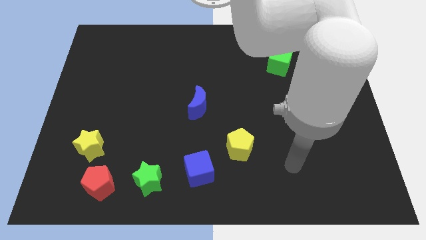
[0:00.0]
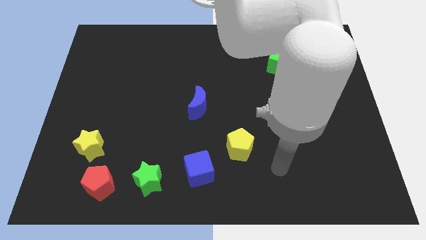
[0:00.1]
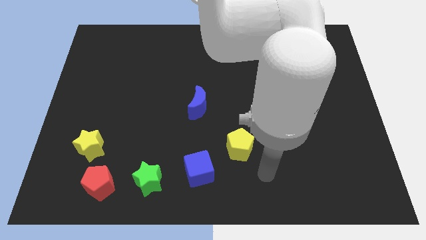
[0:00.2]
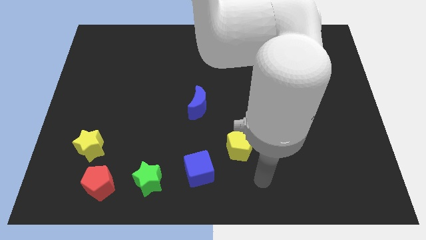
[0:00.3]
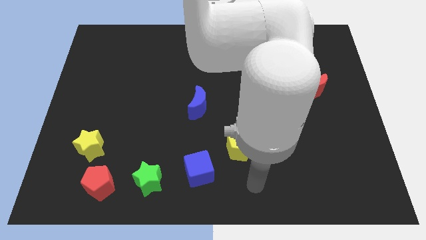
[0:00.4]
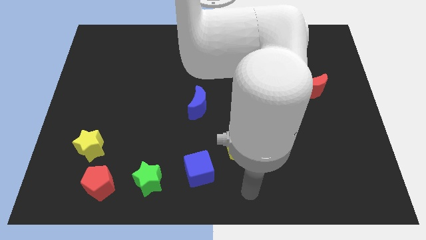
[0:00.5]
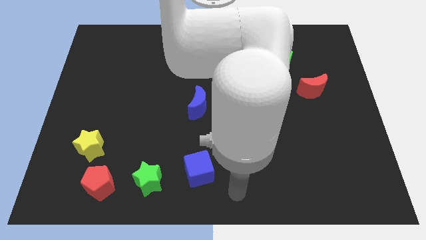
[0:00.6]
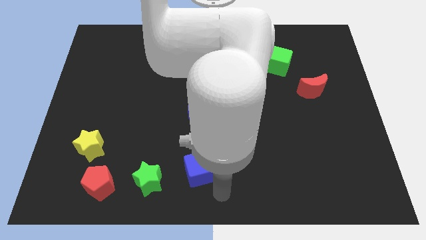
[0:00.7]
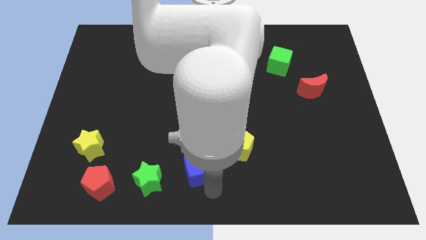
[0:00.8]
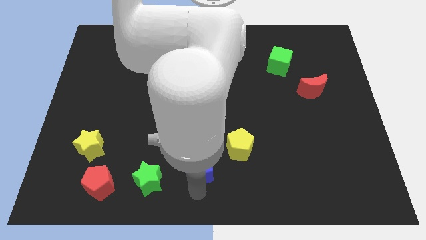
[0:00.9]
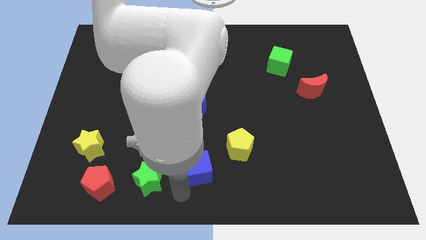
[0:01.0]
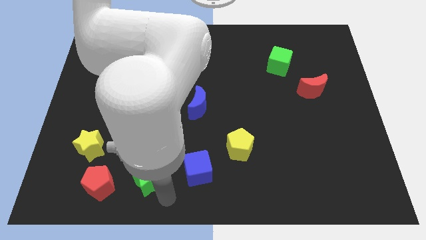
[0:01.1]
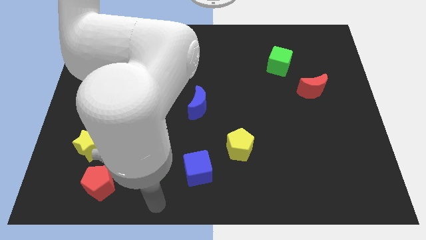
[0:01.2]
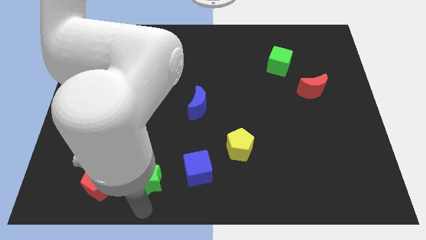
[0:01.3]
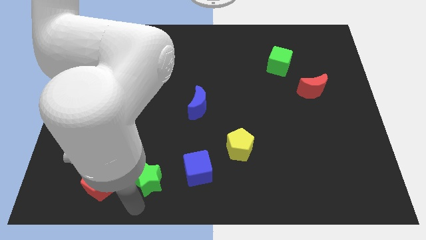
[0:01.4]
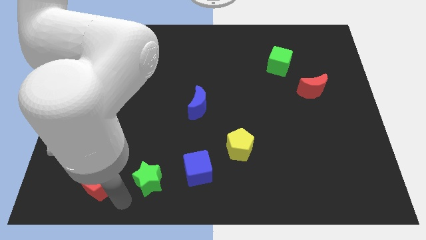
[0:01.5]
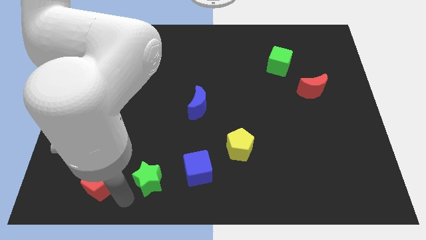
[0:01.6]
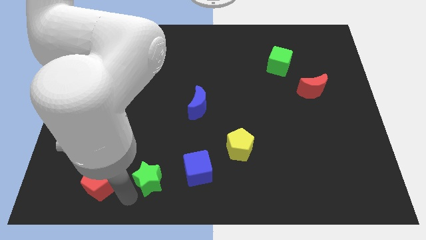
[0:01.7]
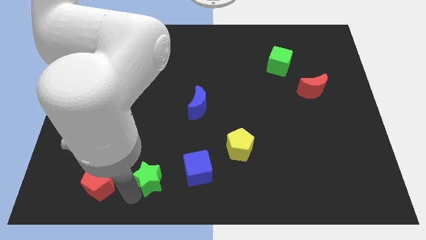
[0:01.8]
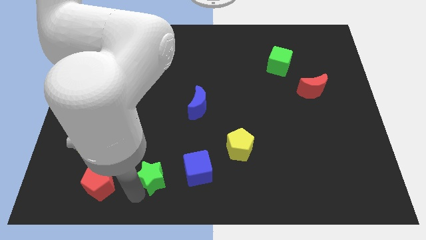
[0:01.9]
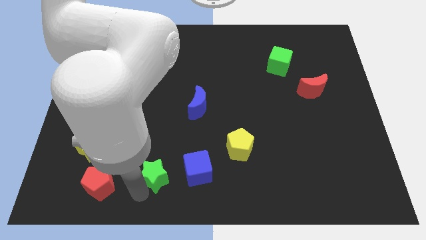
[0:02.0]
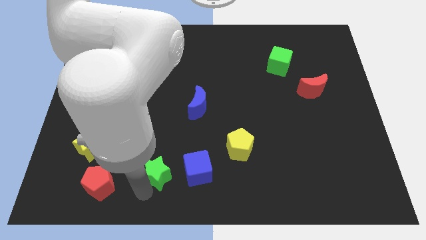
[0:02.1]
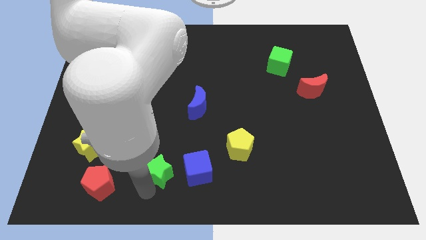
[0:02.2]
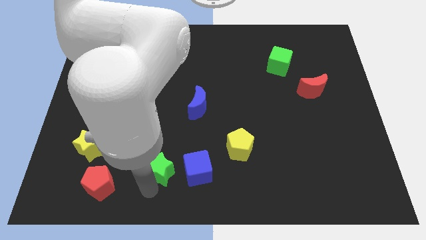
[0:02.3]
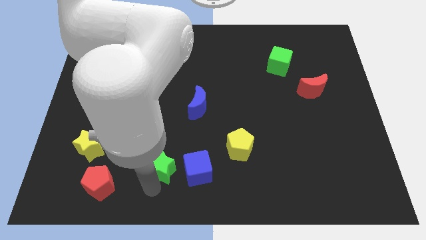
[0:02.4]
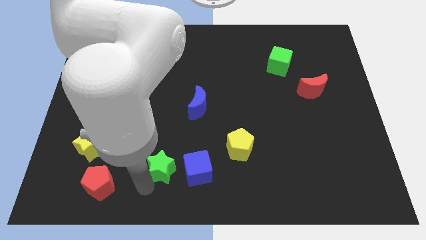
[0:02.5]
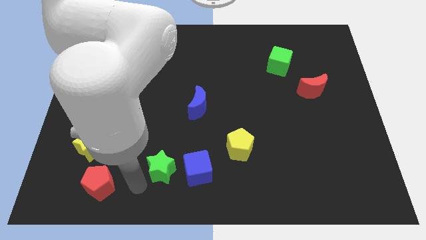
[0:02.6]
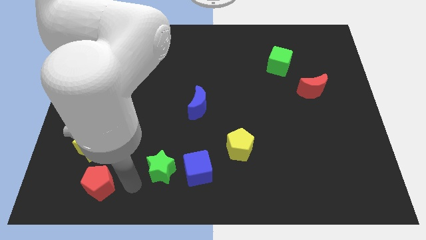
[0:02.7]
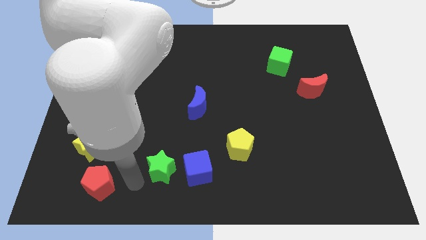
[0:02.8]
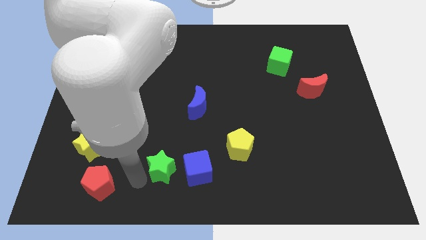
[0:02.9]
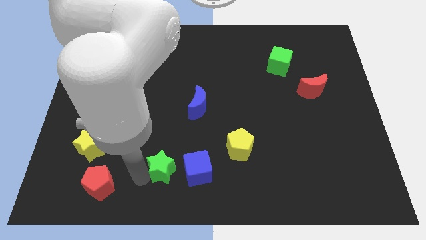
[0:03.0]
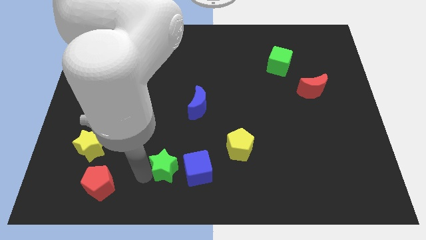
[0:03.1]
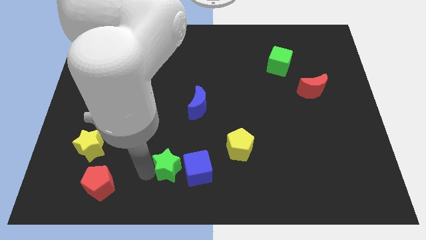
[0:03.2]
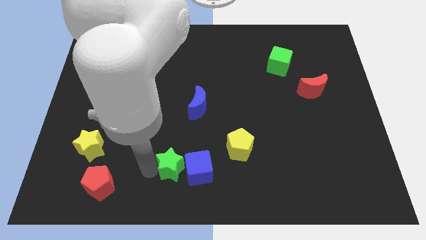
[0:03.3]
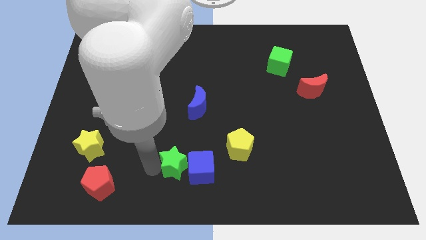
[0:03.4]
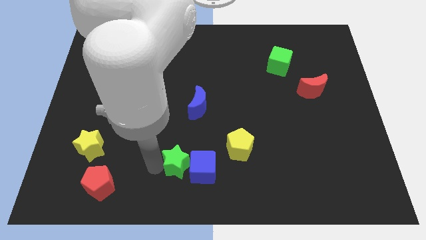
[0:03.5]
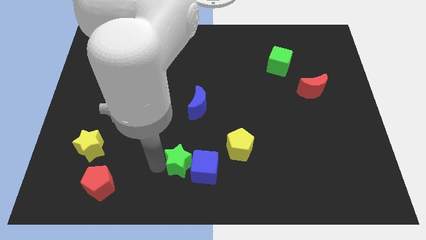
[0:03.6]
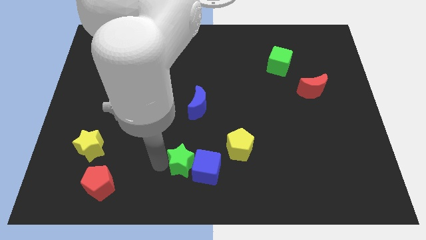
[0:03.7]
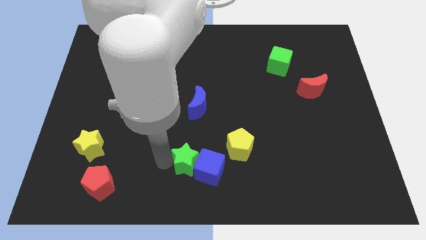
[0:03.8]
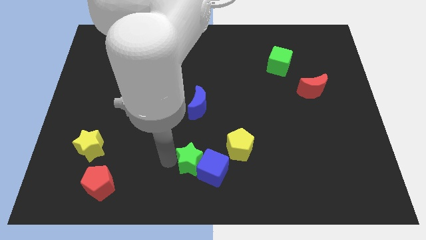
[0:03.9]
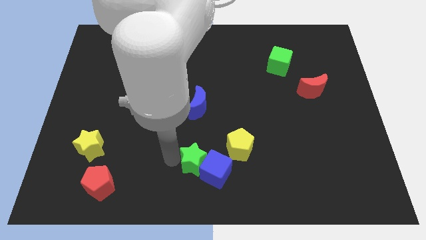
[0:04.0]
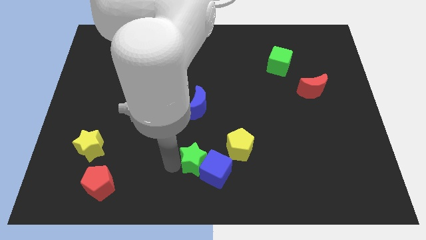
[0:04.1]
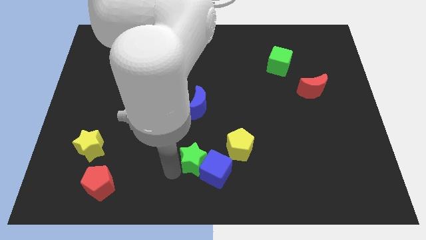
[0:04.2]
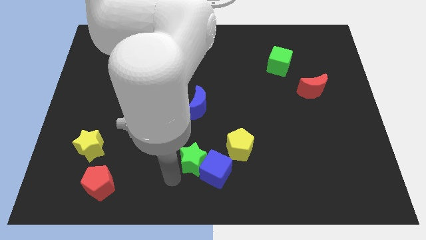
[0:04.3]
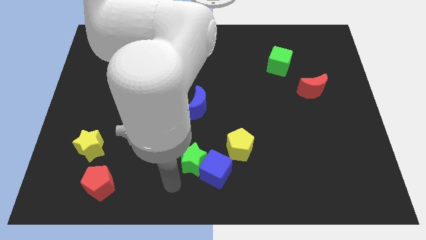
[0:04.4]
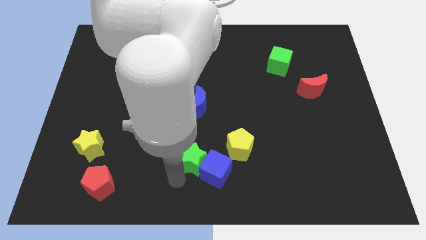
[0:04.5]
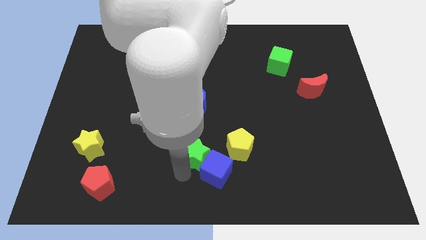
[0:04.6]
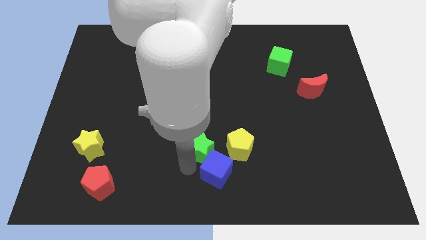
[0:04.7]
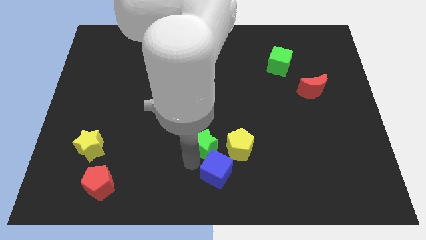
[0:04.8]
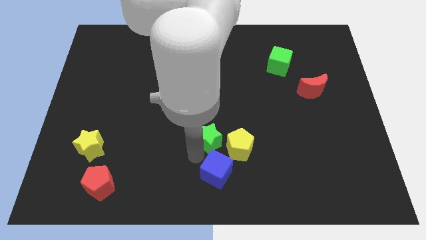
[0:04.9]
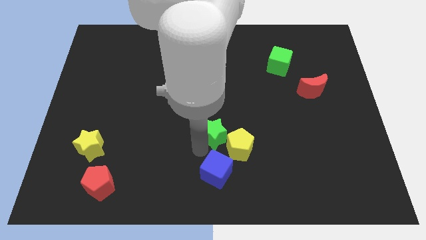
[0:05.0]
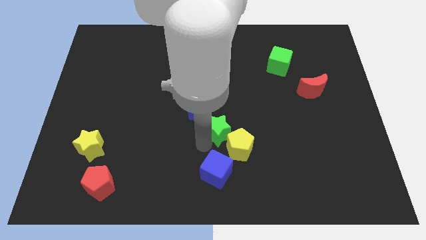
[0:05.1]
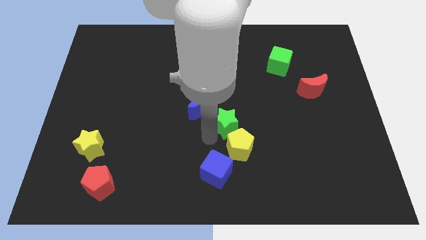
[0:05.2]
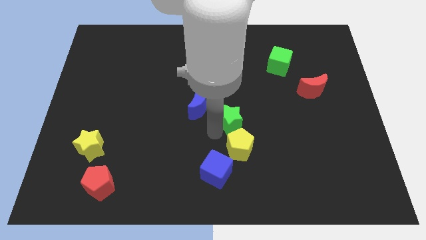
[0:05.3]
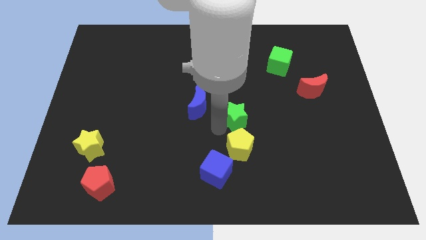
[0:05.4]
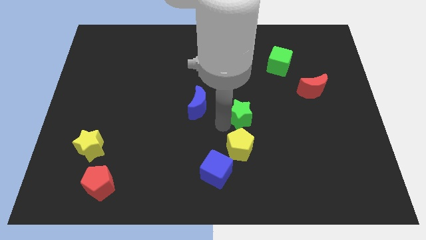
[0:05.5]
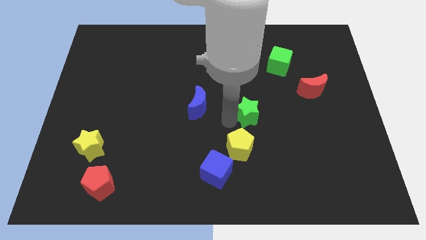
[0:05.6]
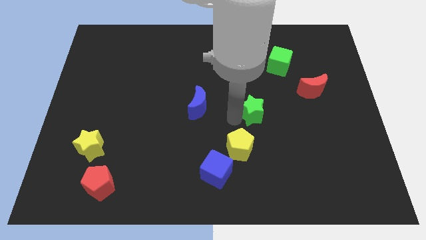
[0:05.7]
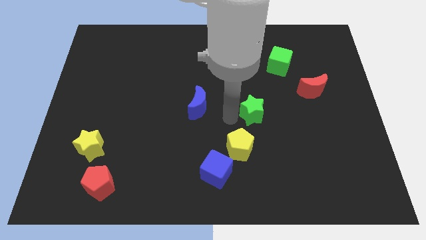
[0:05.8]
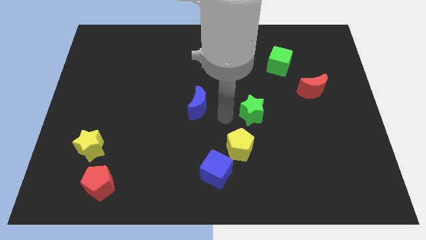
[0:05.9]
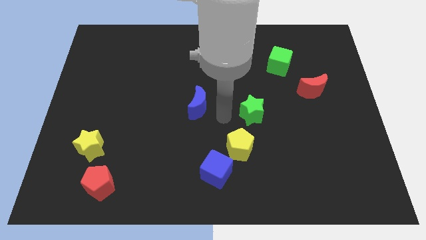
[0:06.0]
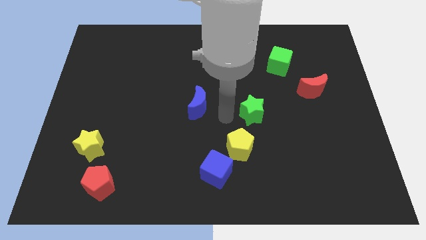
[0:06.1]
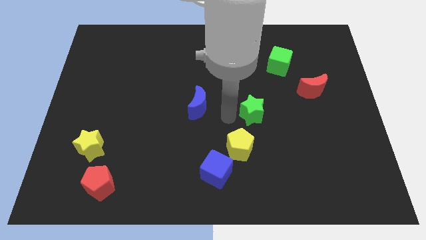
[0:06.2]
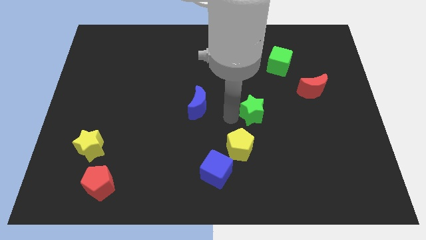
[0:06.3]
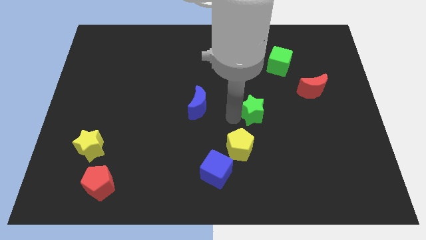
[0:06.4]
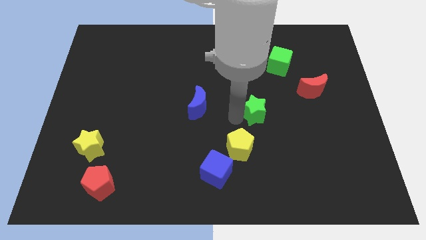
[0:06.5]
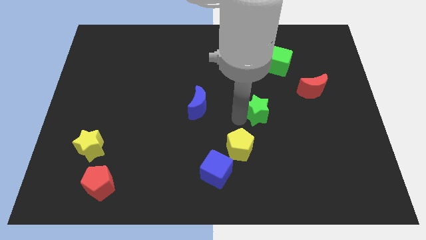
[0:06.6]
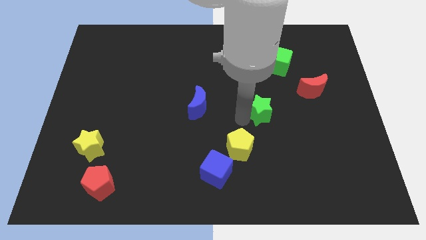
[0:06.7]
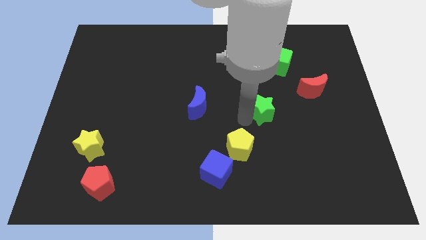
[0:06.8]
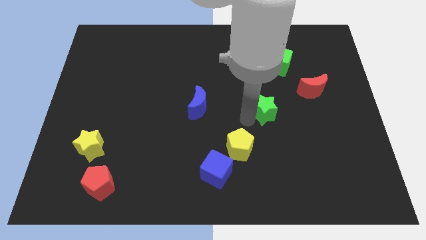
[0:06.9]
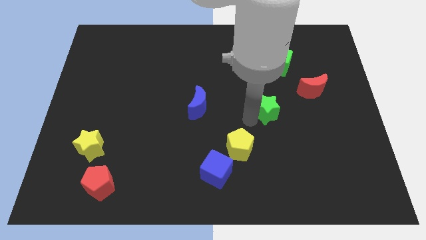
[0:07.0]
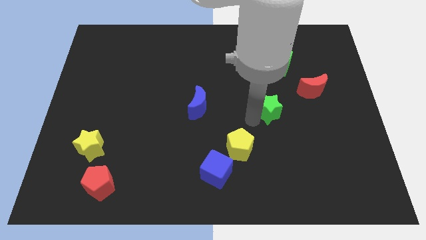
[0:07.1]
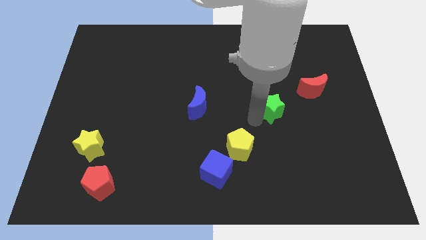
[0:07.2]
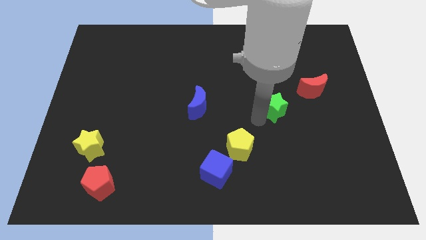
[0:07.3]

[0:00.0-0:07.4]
slide the green star below the green cube
